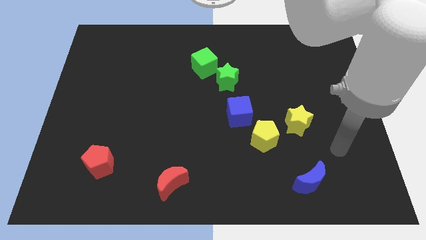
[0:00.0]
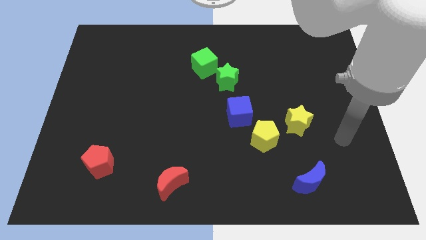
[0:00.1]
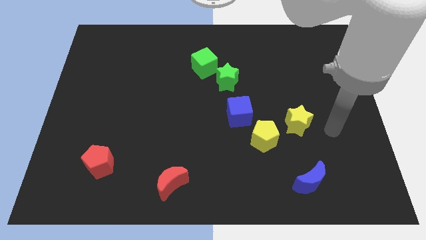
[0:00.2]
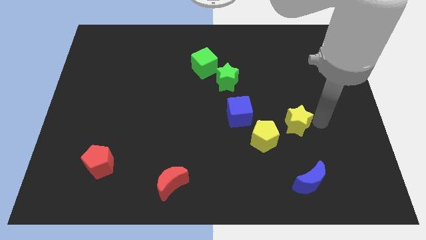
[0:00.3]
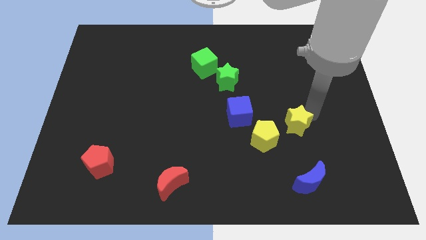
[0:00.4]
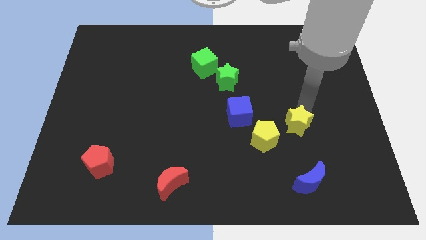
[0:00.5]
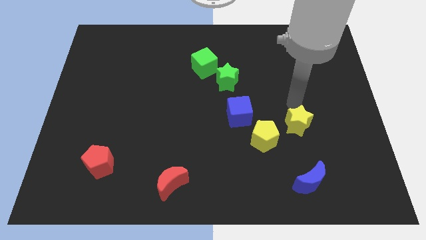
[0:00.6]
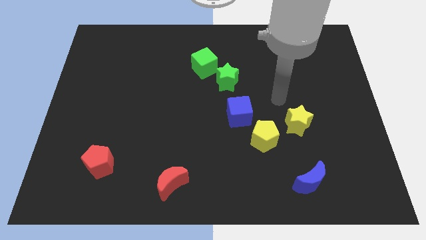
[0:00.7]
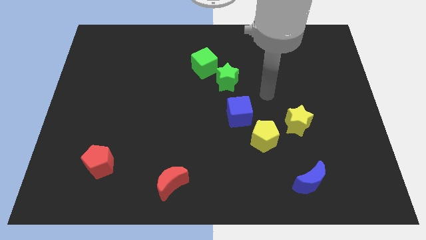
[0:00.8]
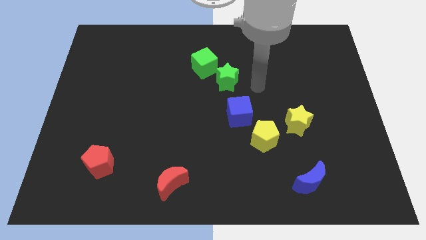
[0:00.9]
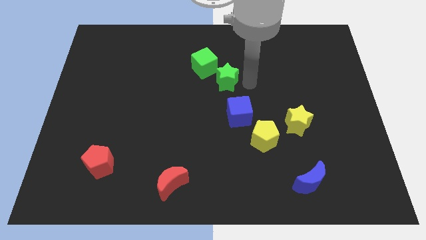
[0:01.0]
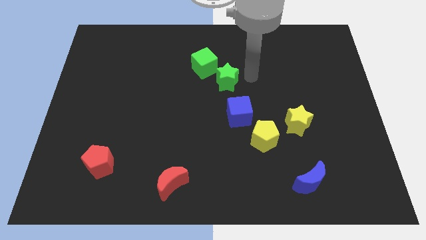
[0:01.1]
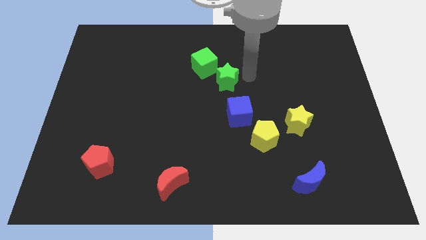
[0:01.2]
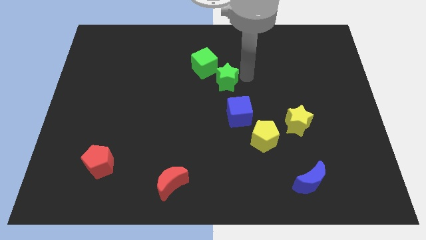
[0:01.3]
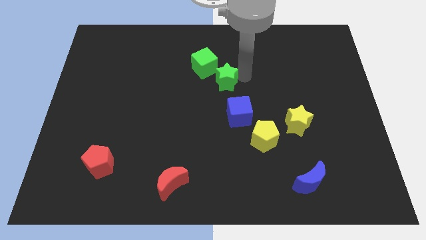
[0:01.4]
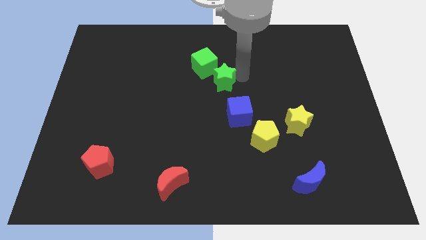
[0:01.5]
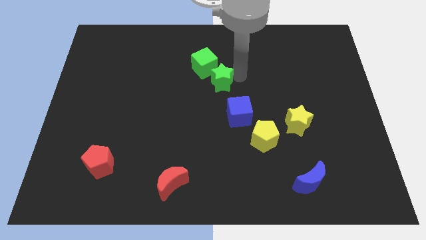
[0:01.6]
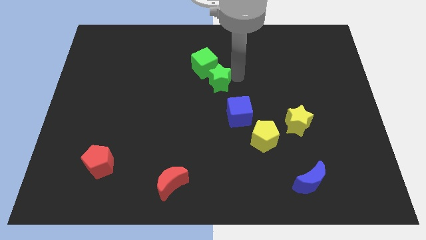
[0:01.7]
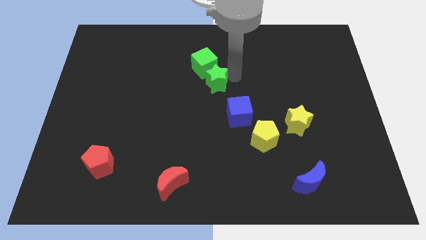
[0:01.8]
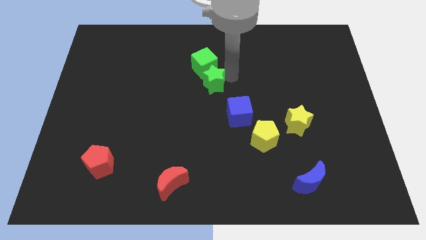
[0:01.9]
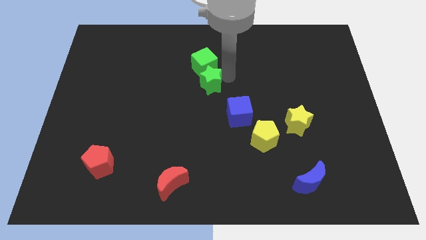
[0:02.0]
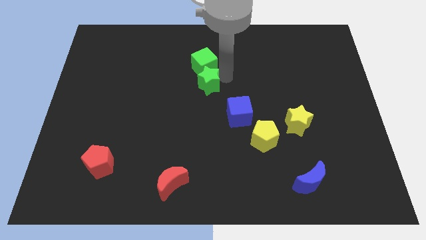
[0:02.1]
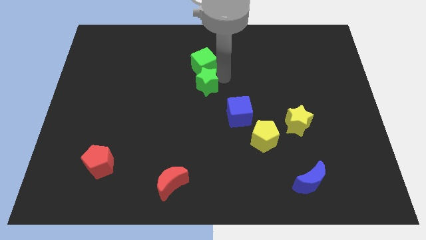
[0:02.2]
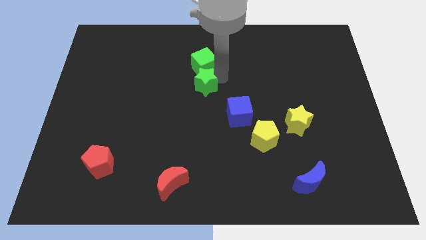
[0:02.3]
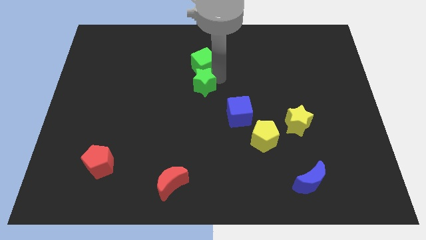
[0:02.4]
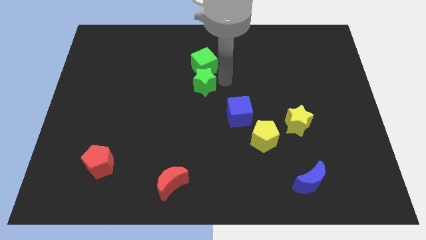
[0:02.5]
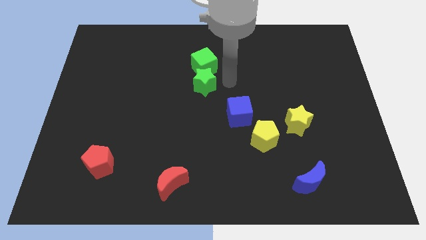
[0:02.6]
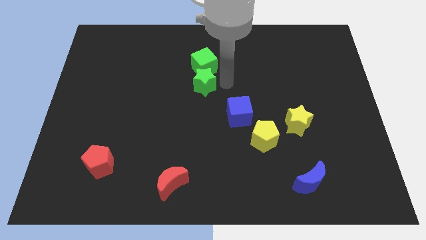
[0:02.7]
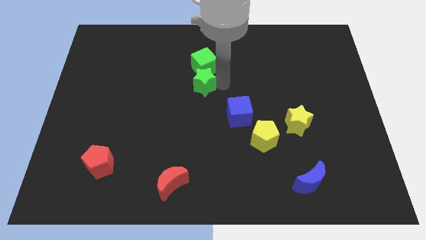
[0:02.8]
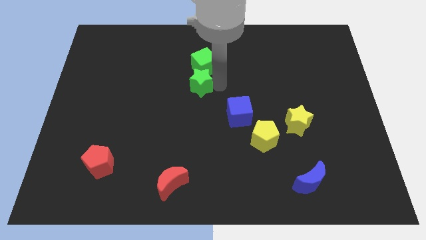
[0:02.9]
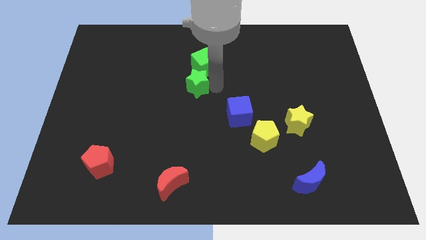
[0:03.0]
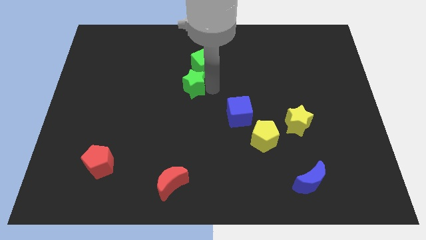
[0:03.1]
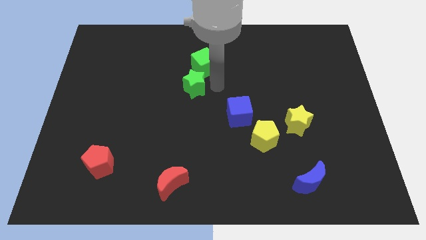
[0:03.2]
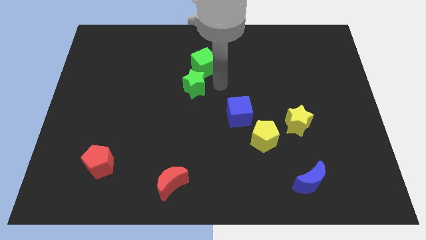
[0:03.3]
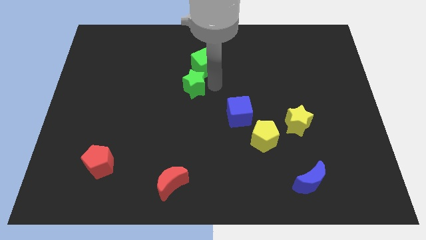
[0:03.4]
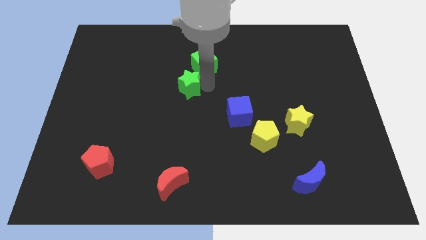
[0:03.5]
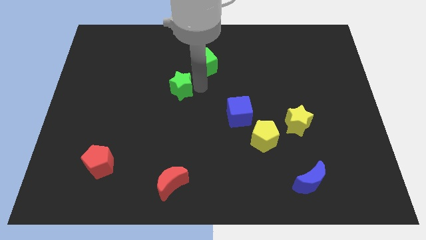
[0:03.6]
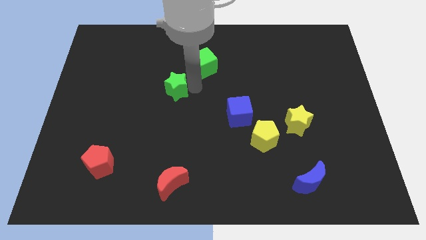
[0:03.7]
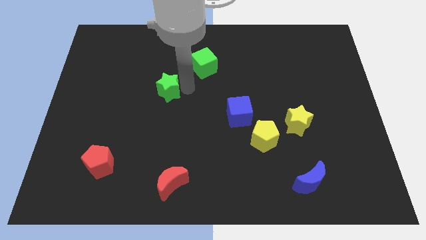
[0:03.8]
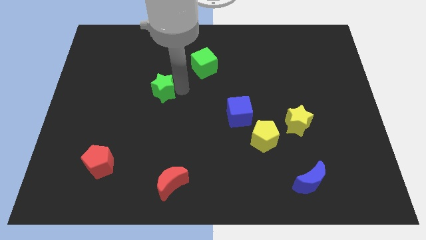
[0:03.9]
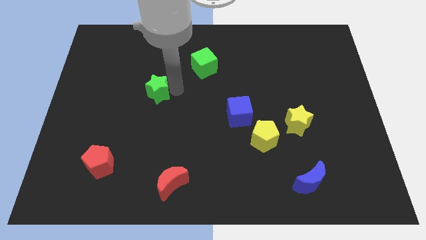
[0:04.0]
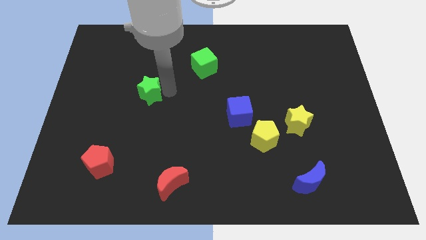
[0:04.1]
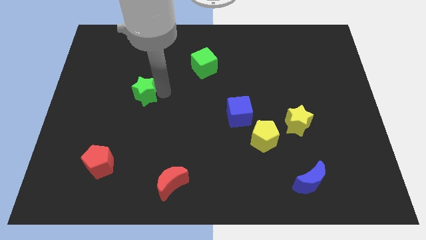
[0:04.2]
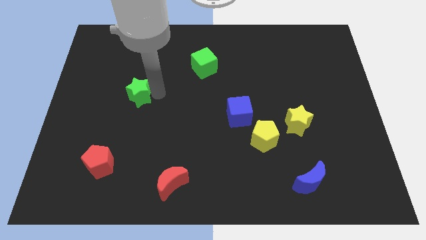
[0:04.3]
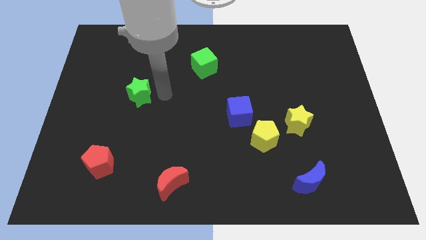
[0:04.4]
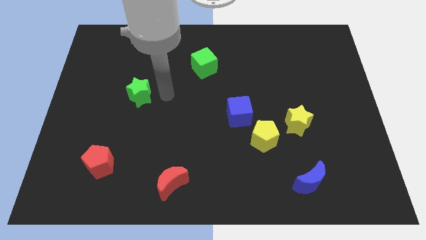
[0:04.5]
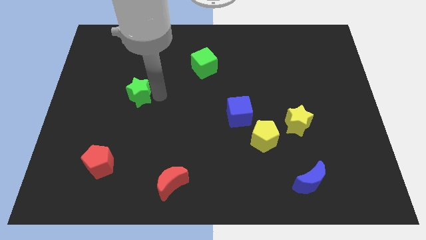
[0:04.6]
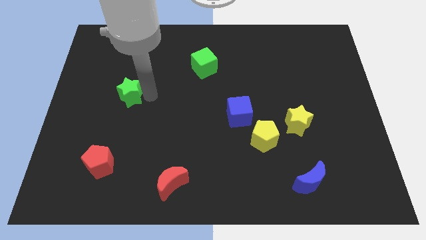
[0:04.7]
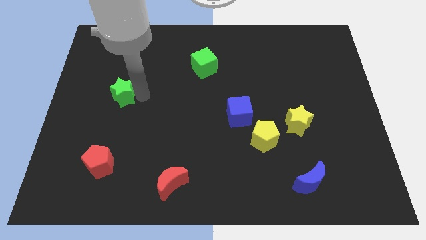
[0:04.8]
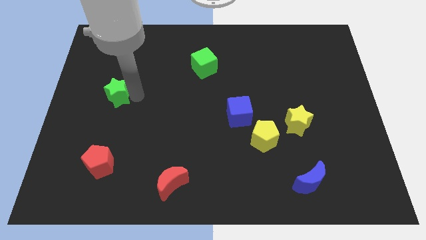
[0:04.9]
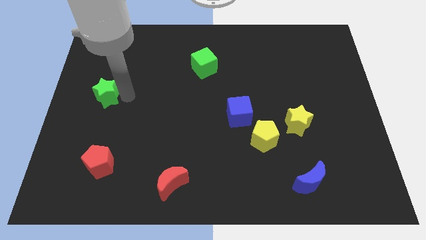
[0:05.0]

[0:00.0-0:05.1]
push the green star to the center left

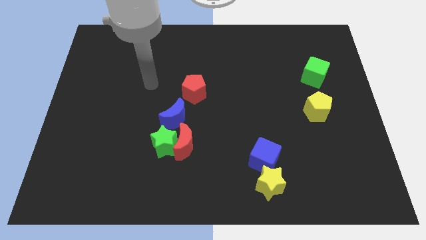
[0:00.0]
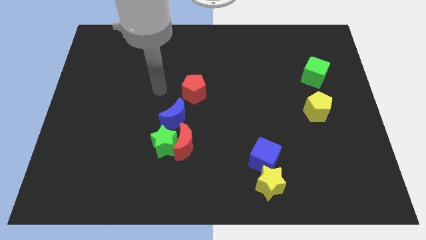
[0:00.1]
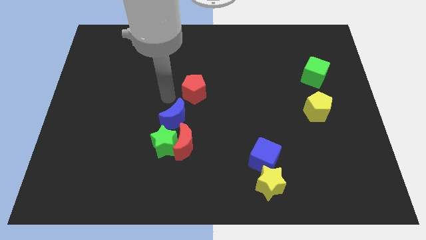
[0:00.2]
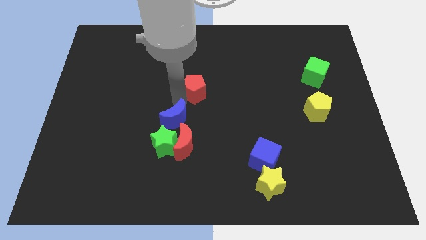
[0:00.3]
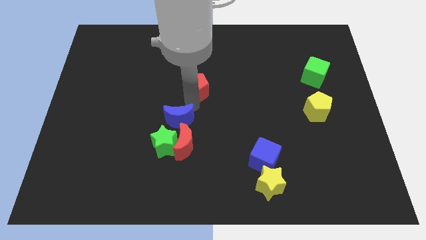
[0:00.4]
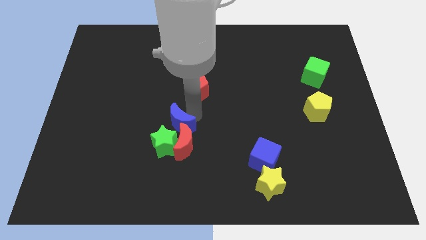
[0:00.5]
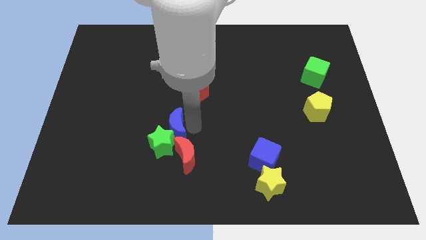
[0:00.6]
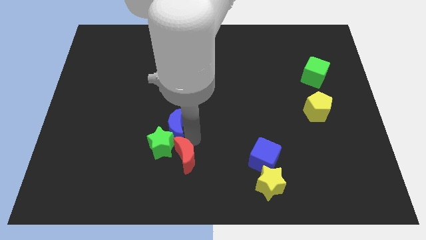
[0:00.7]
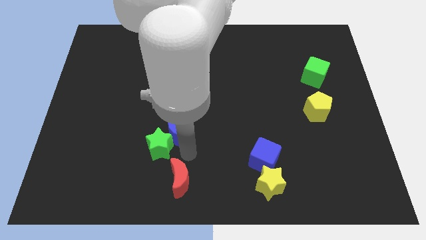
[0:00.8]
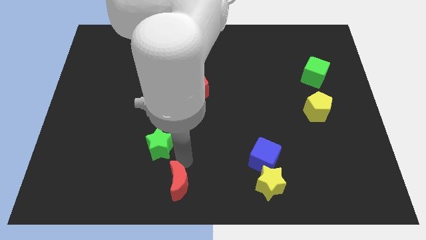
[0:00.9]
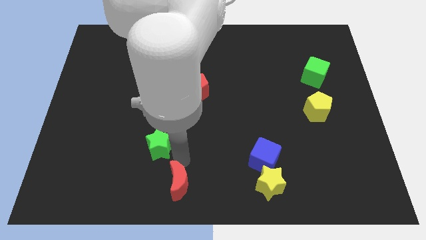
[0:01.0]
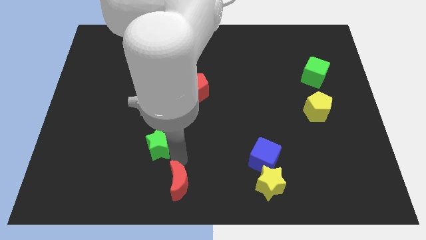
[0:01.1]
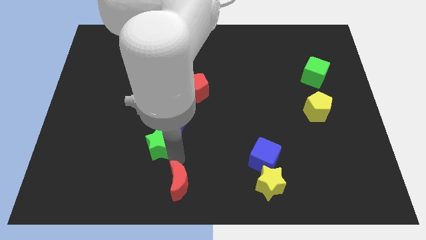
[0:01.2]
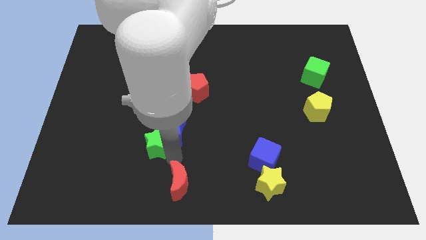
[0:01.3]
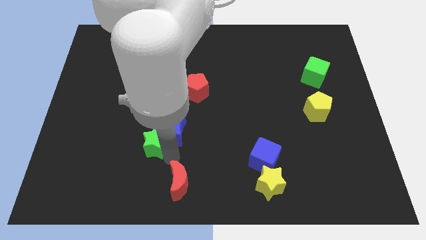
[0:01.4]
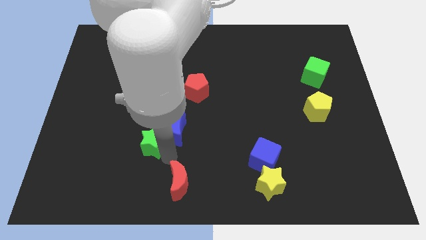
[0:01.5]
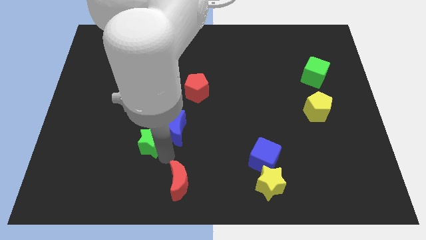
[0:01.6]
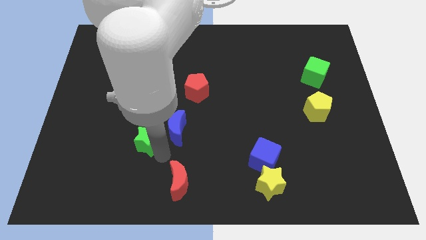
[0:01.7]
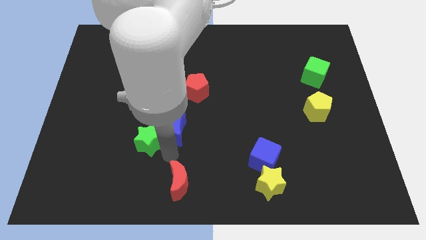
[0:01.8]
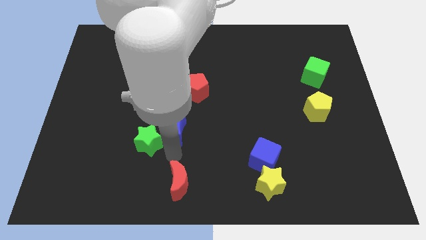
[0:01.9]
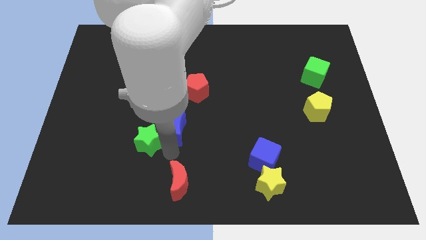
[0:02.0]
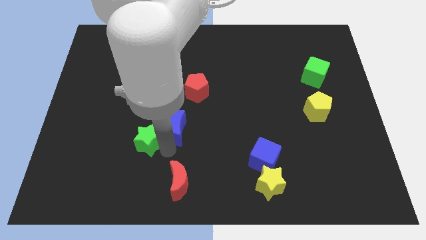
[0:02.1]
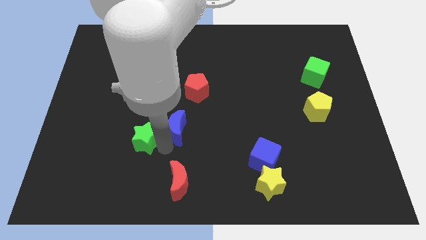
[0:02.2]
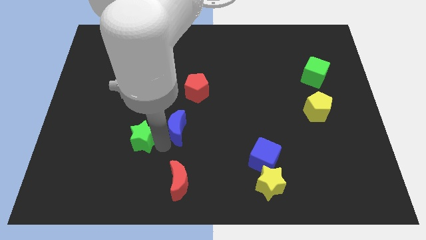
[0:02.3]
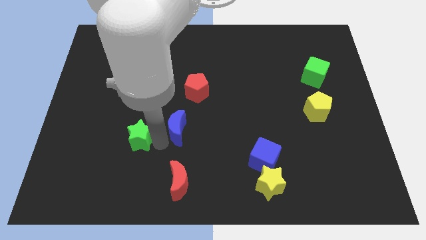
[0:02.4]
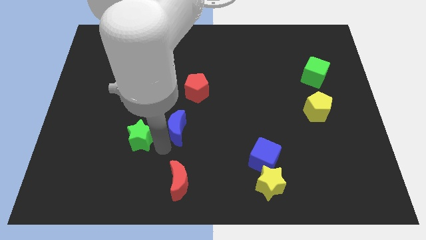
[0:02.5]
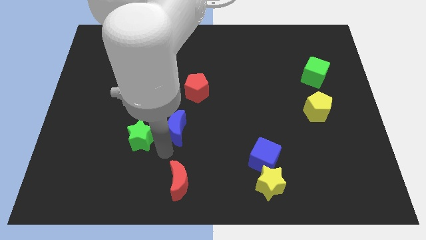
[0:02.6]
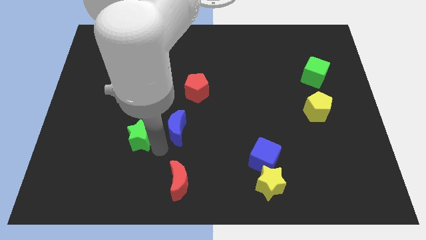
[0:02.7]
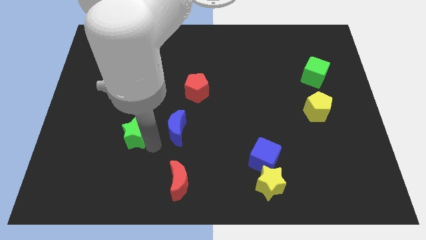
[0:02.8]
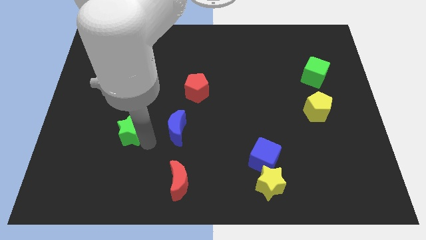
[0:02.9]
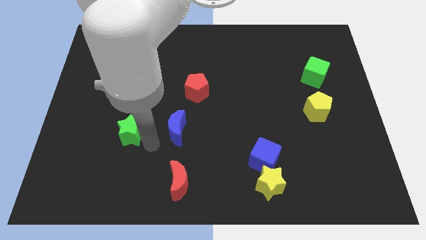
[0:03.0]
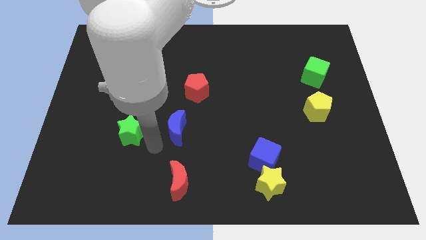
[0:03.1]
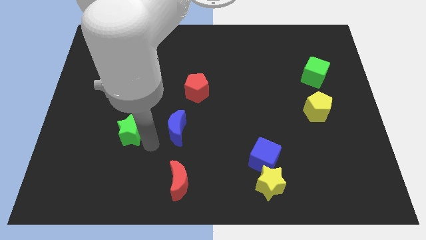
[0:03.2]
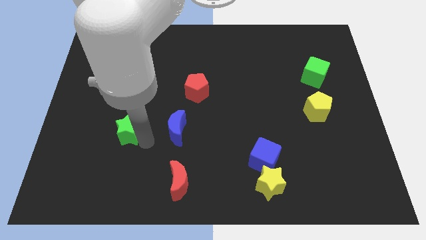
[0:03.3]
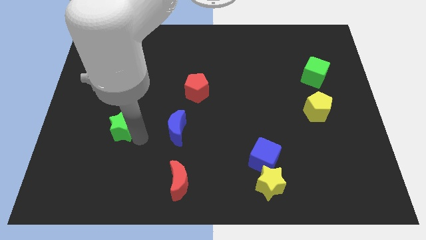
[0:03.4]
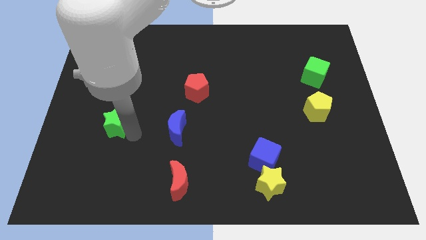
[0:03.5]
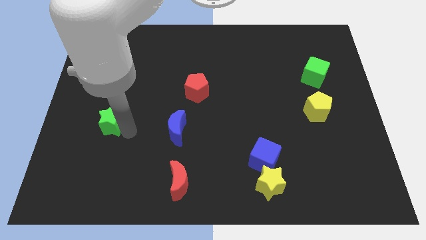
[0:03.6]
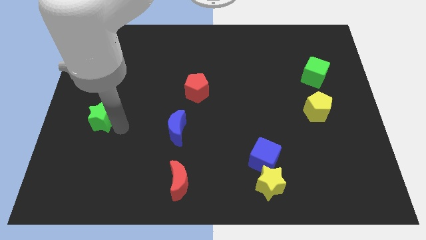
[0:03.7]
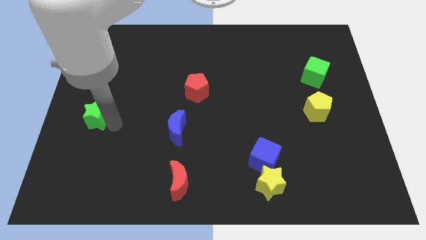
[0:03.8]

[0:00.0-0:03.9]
put the green star to the left side
